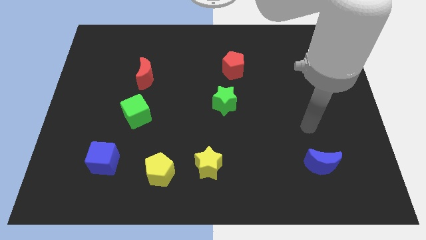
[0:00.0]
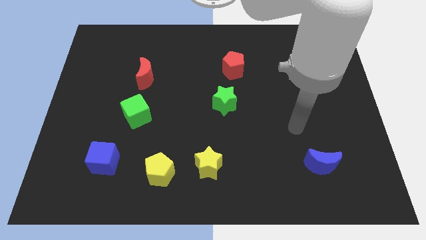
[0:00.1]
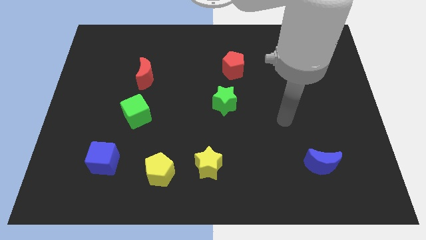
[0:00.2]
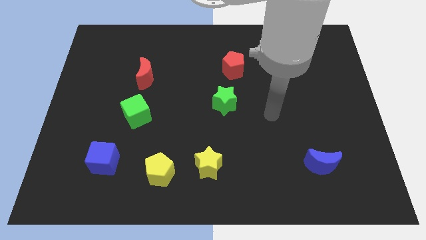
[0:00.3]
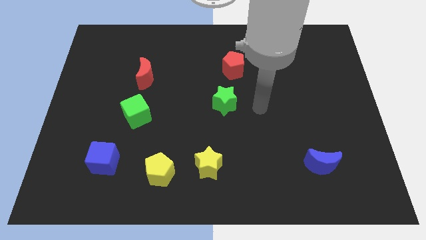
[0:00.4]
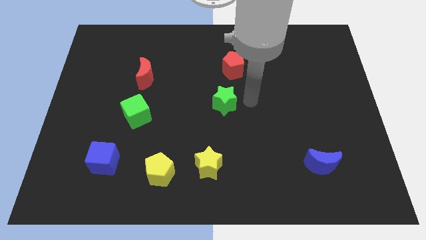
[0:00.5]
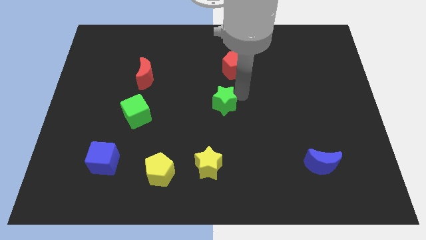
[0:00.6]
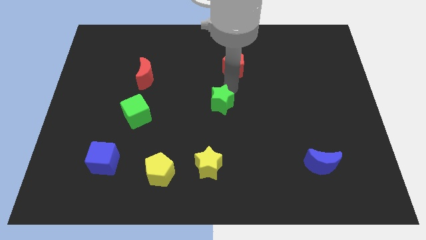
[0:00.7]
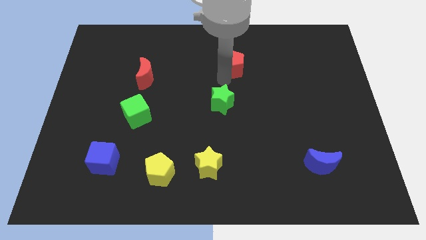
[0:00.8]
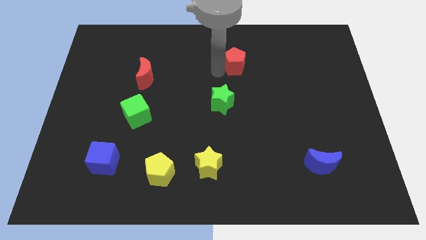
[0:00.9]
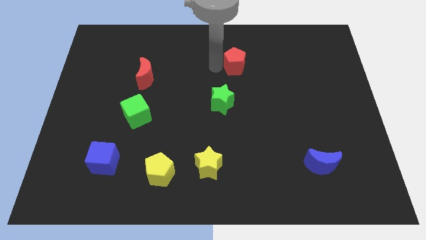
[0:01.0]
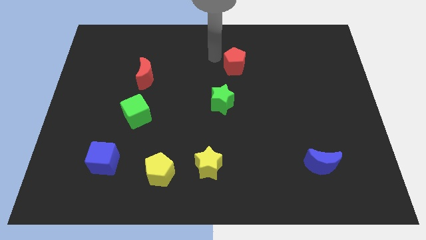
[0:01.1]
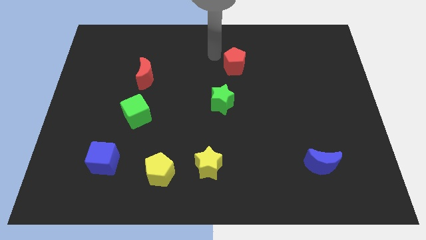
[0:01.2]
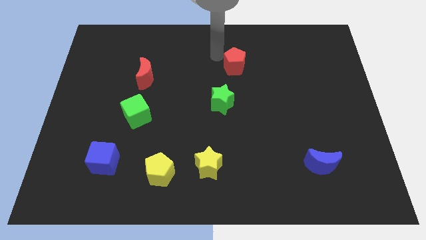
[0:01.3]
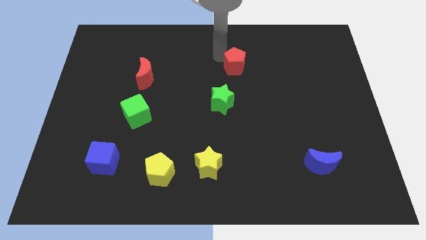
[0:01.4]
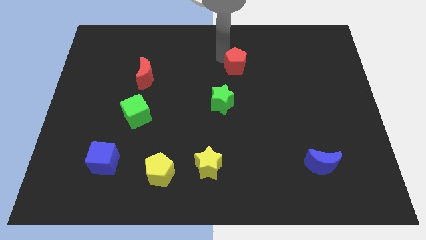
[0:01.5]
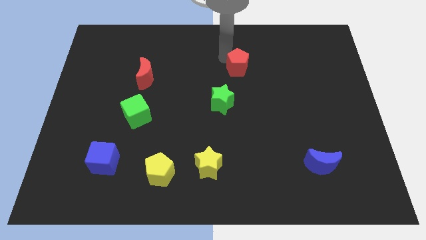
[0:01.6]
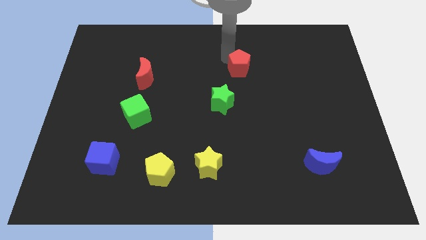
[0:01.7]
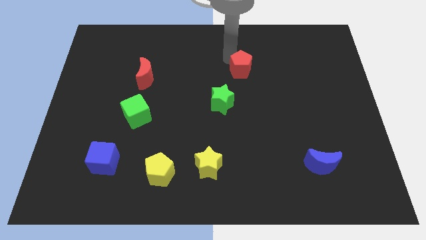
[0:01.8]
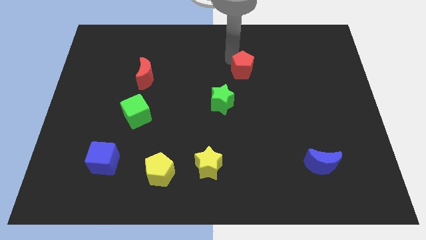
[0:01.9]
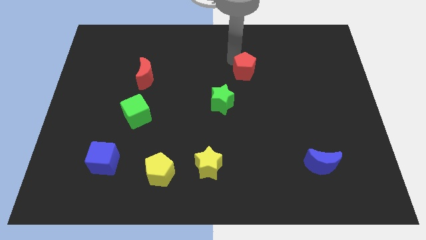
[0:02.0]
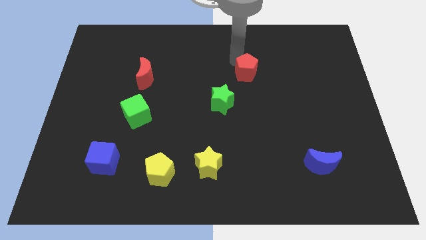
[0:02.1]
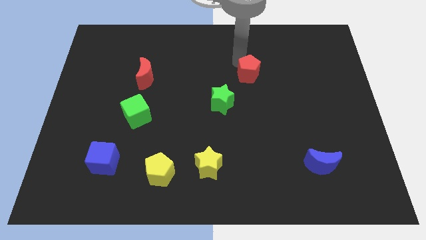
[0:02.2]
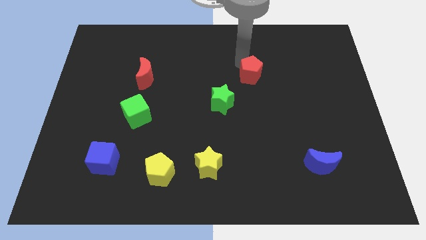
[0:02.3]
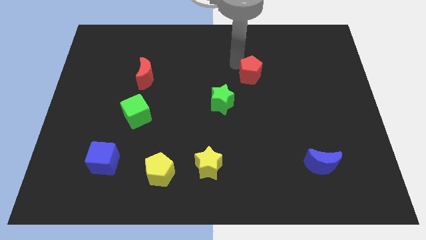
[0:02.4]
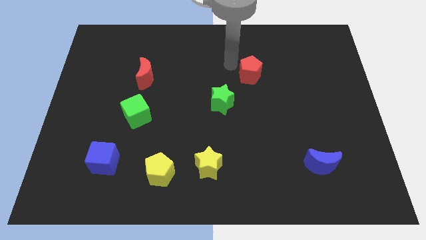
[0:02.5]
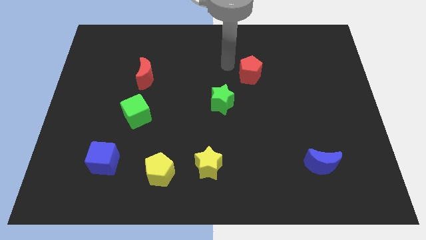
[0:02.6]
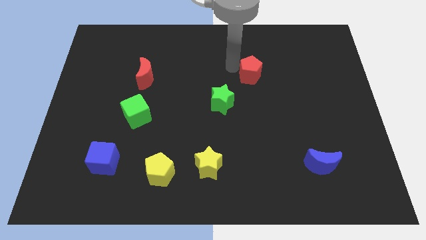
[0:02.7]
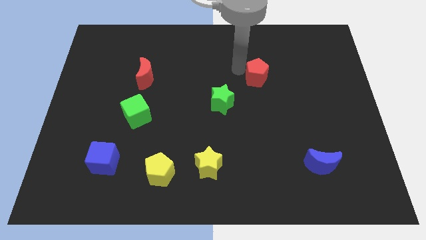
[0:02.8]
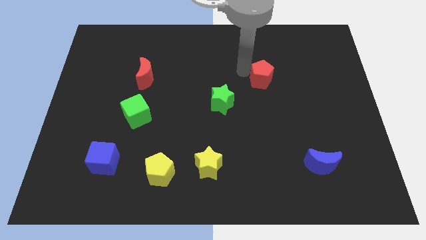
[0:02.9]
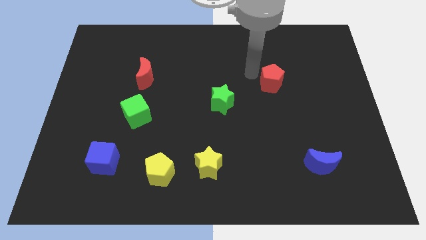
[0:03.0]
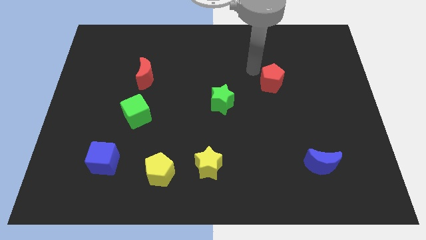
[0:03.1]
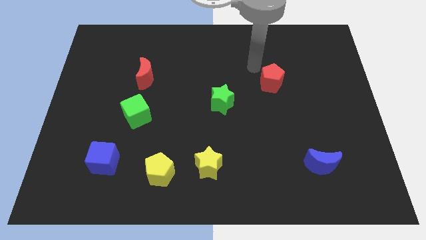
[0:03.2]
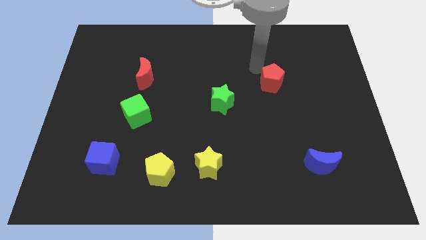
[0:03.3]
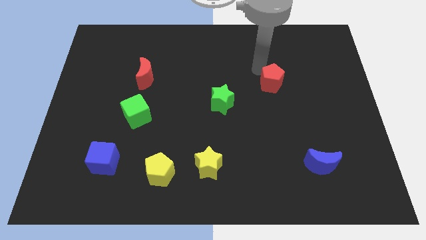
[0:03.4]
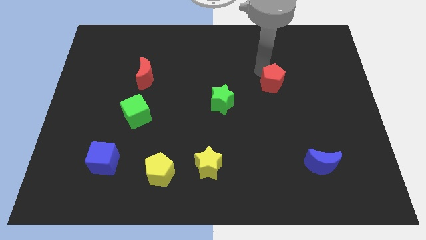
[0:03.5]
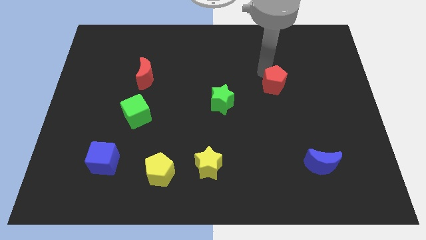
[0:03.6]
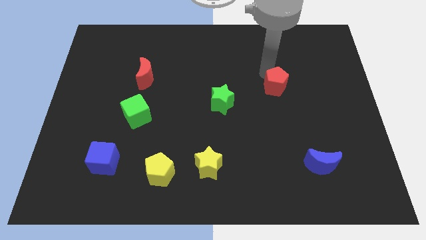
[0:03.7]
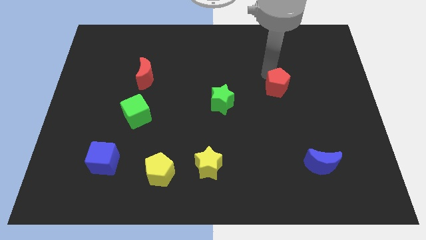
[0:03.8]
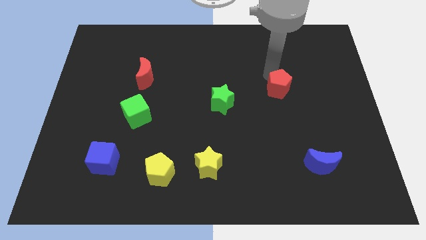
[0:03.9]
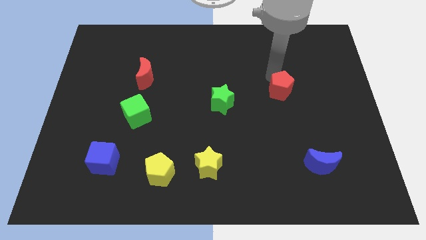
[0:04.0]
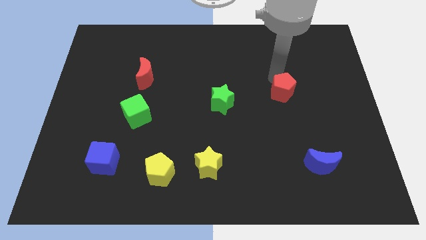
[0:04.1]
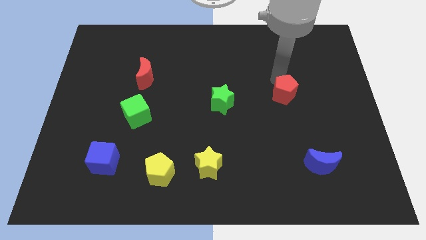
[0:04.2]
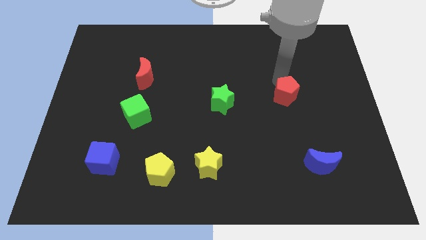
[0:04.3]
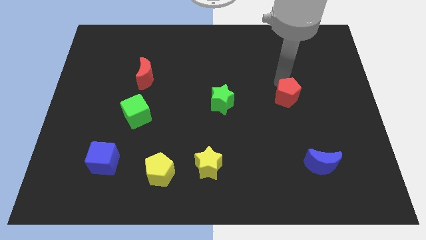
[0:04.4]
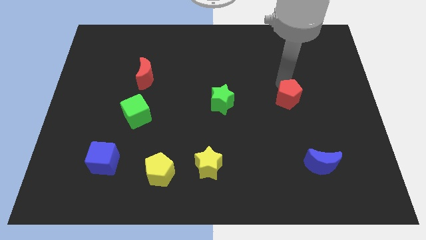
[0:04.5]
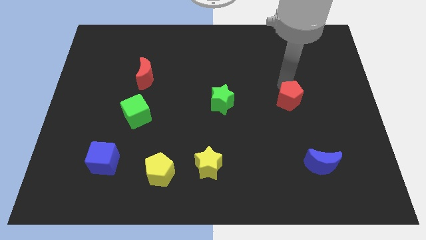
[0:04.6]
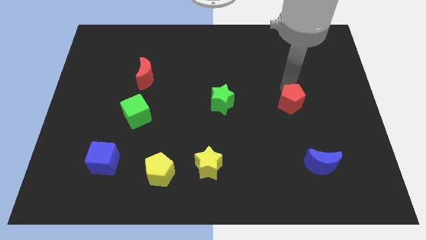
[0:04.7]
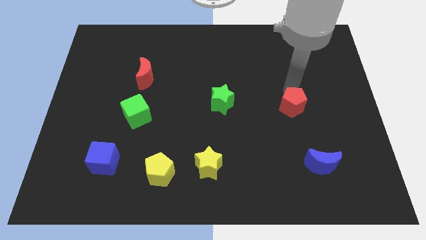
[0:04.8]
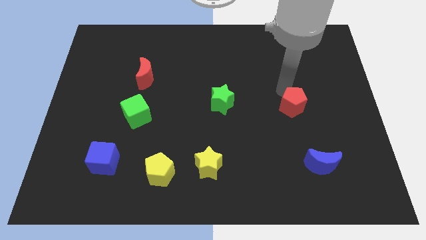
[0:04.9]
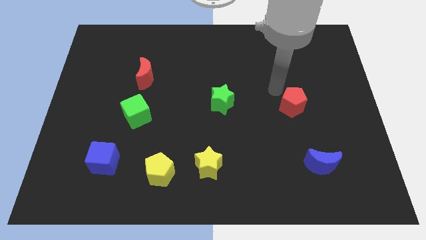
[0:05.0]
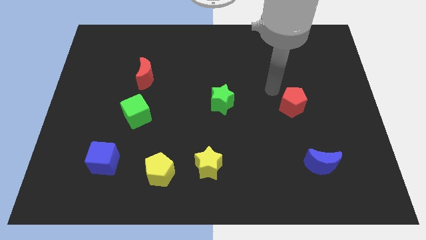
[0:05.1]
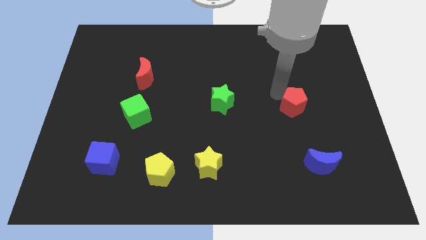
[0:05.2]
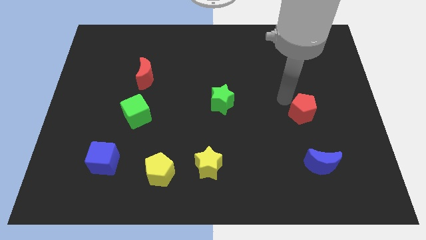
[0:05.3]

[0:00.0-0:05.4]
push the red pentagon downwards and to the right diagonally

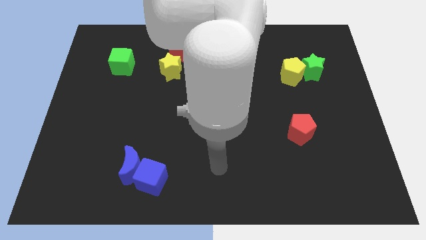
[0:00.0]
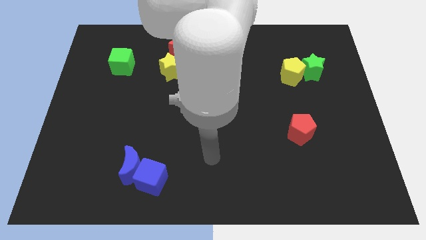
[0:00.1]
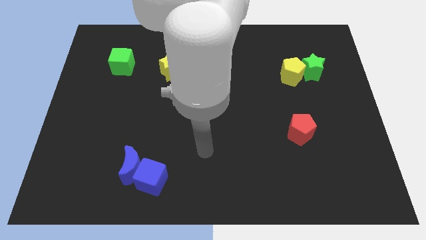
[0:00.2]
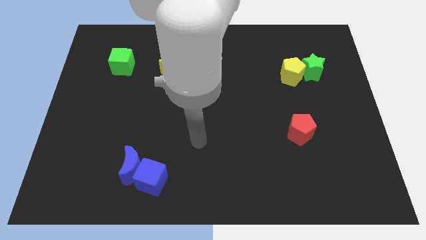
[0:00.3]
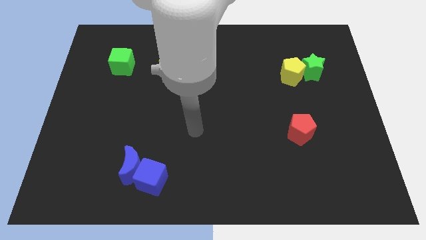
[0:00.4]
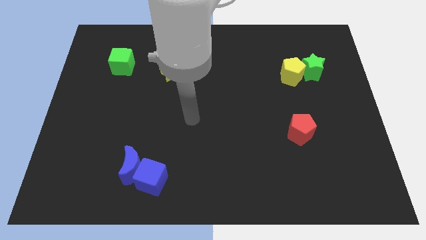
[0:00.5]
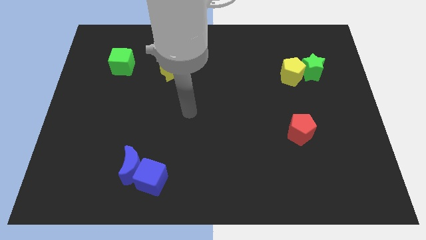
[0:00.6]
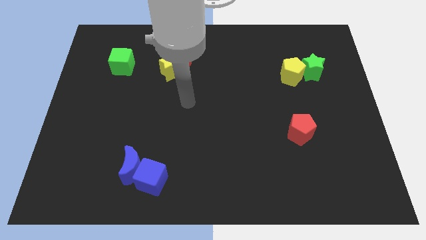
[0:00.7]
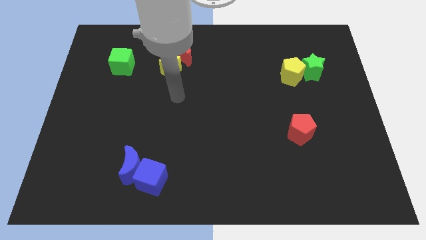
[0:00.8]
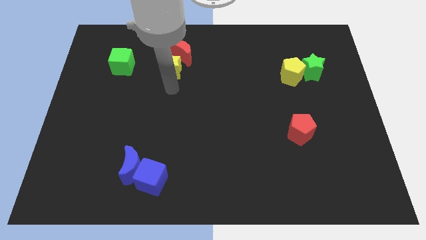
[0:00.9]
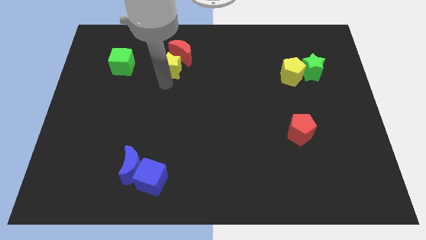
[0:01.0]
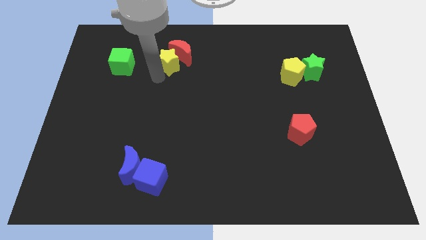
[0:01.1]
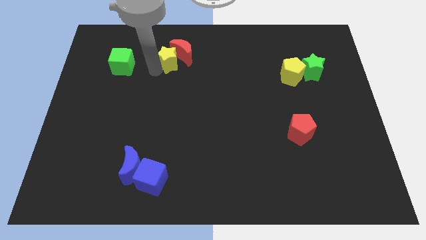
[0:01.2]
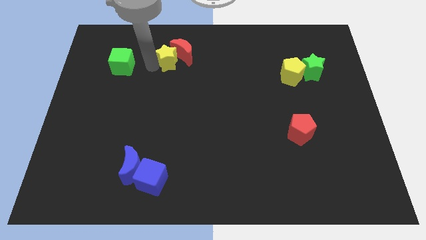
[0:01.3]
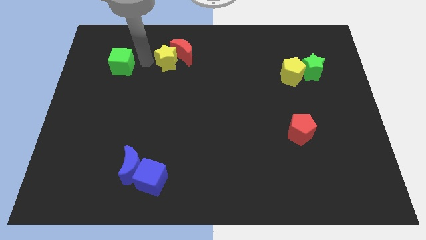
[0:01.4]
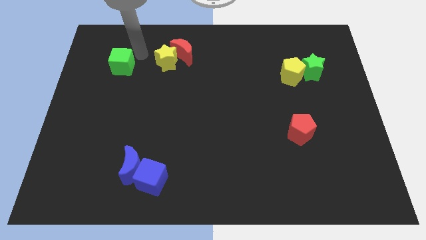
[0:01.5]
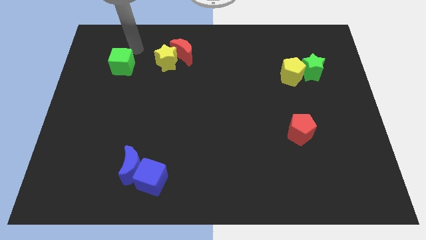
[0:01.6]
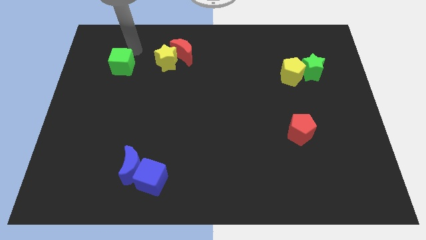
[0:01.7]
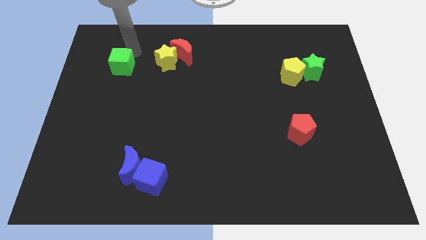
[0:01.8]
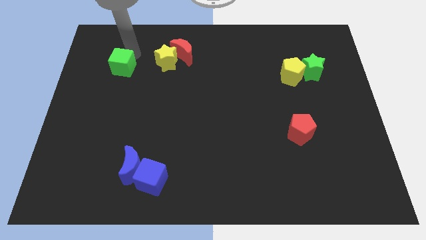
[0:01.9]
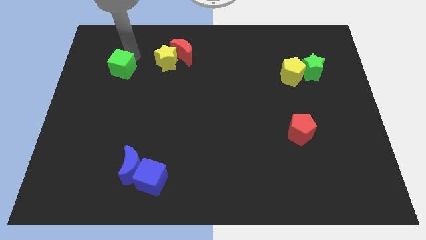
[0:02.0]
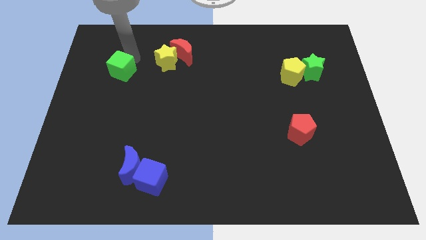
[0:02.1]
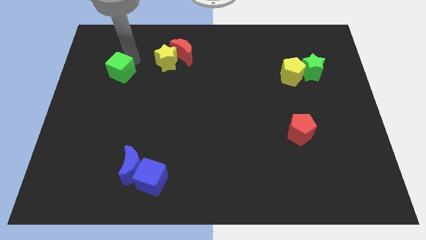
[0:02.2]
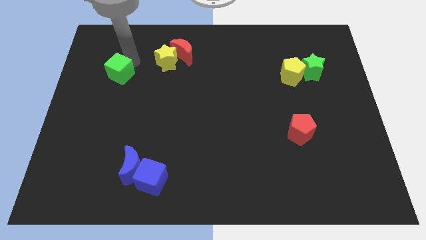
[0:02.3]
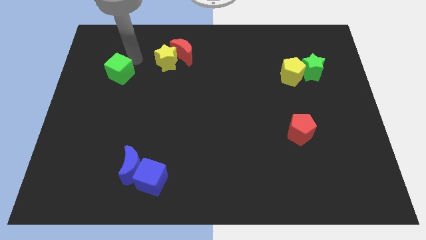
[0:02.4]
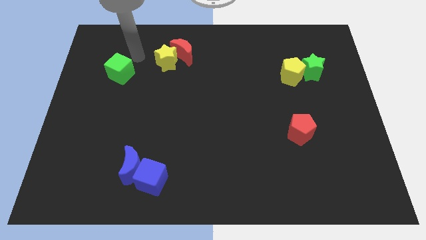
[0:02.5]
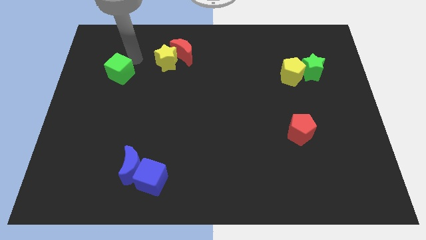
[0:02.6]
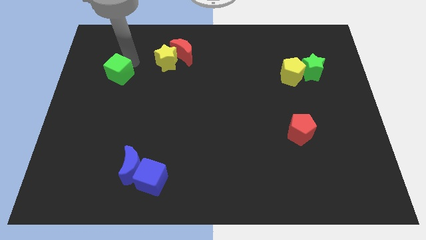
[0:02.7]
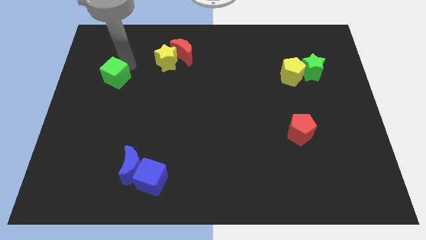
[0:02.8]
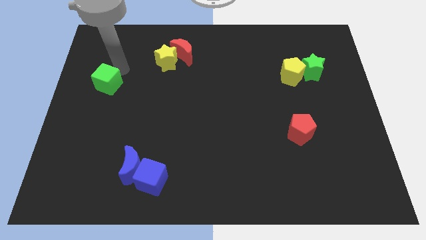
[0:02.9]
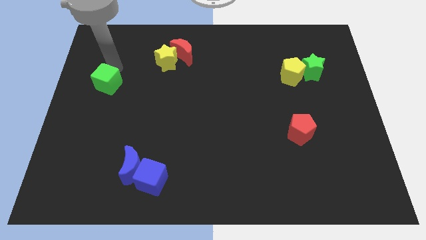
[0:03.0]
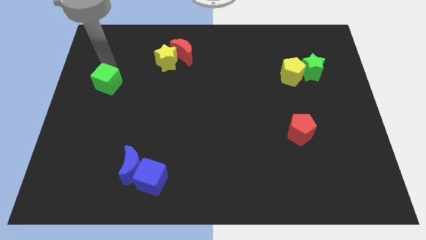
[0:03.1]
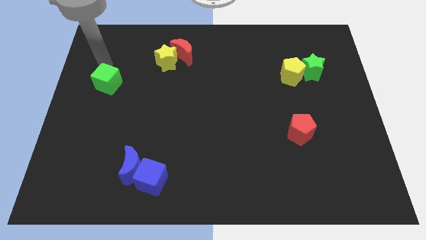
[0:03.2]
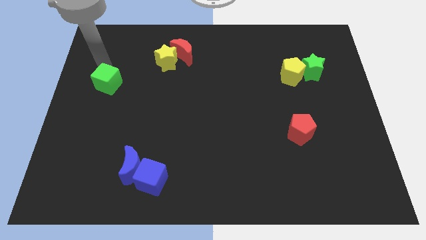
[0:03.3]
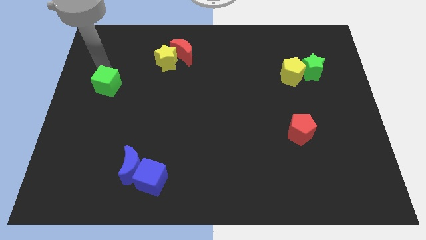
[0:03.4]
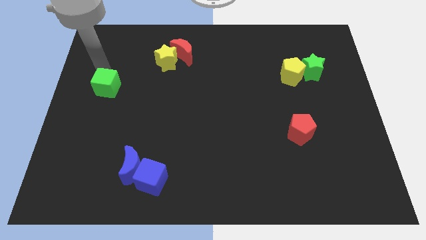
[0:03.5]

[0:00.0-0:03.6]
push the green cube a bit downwards
